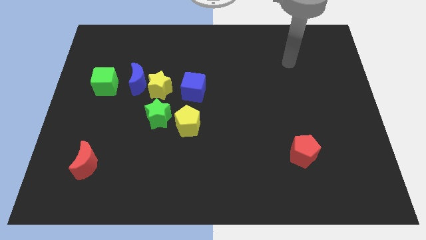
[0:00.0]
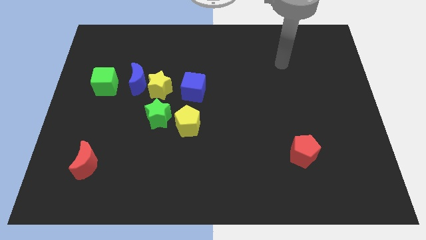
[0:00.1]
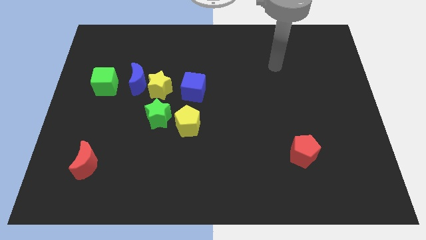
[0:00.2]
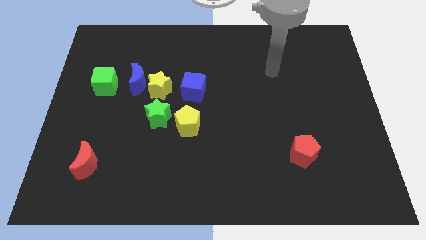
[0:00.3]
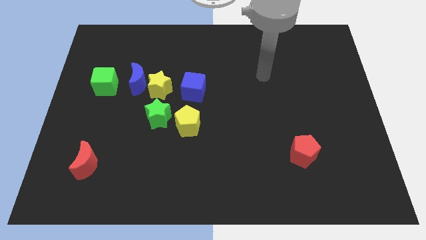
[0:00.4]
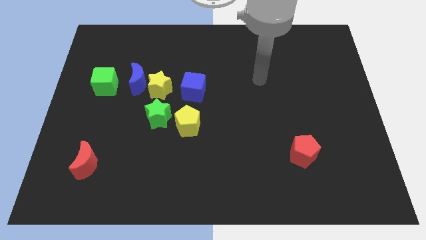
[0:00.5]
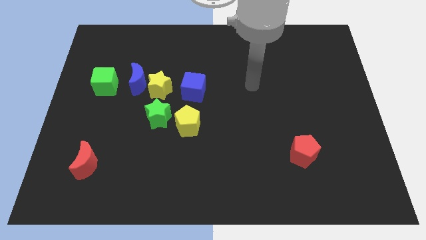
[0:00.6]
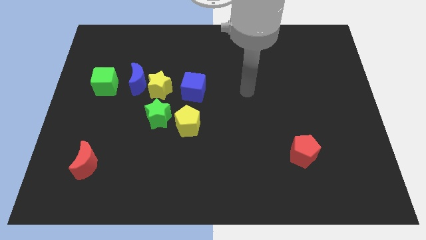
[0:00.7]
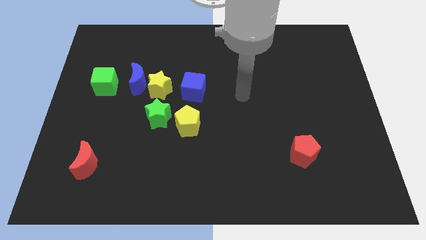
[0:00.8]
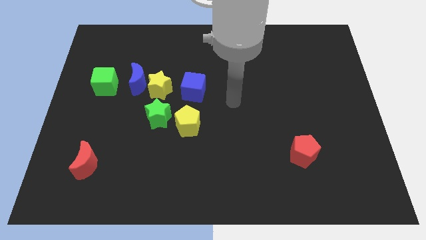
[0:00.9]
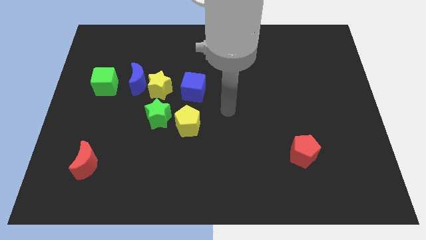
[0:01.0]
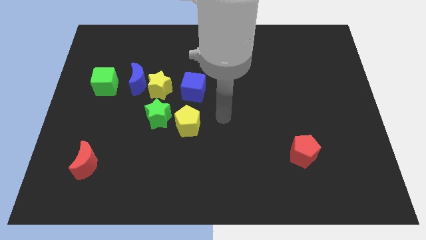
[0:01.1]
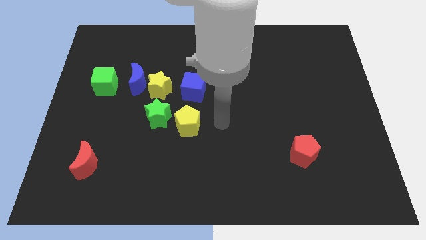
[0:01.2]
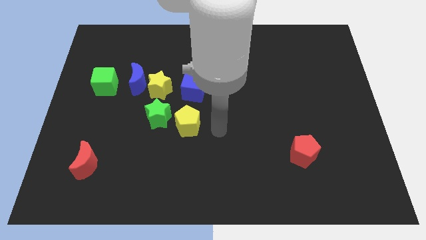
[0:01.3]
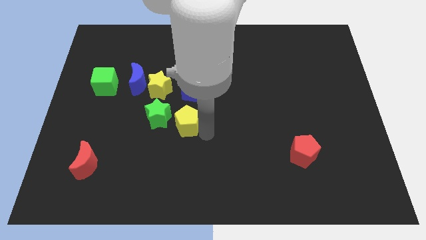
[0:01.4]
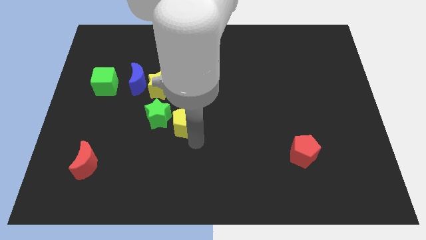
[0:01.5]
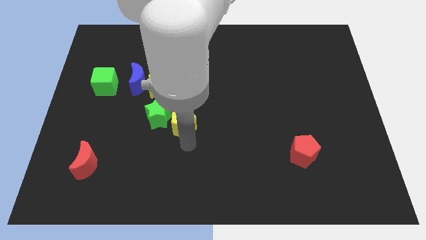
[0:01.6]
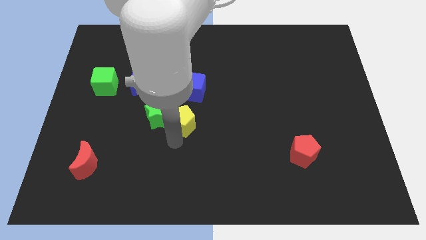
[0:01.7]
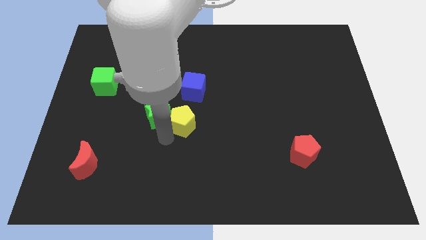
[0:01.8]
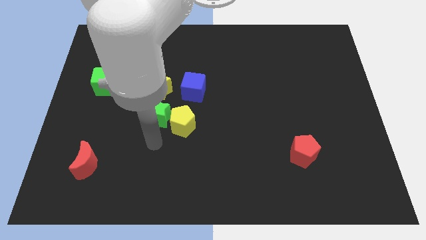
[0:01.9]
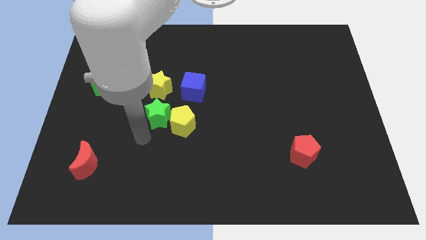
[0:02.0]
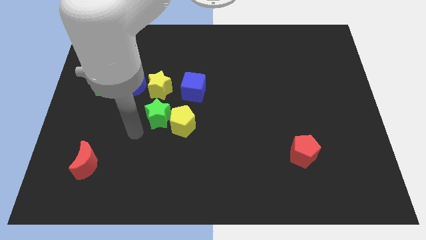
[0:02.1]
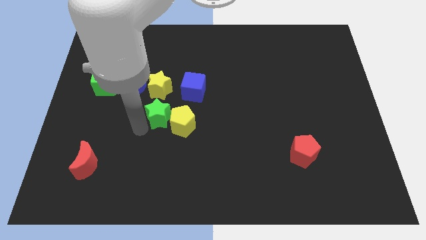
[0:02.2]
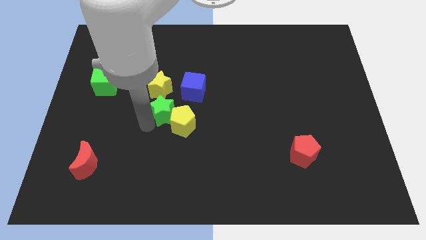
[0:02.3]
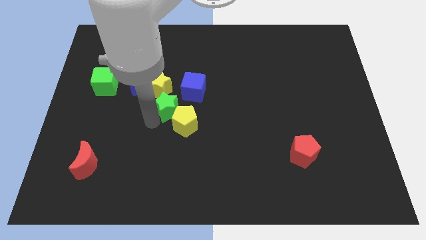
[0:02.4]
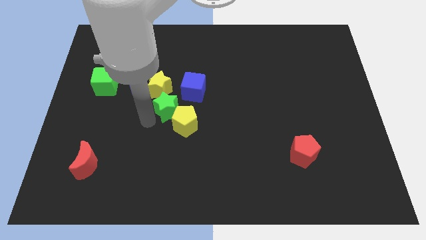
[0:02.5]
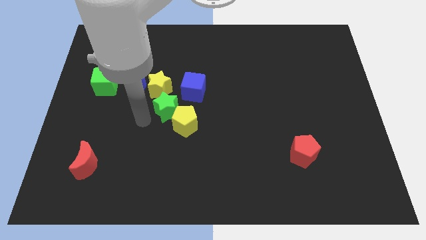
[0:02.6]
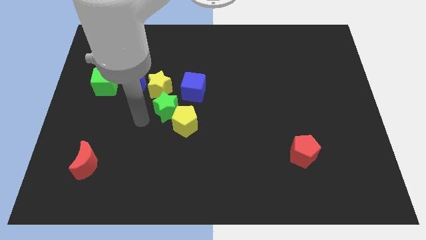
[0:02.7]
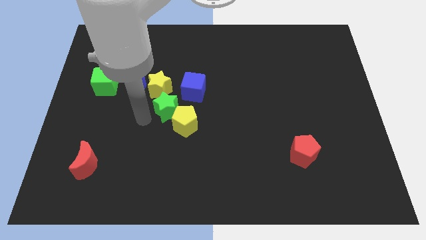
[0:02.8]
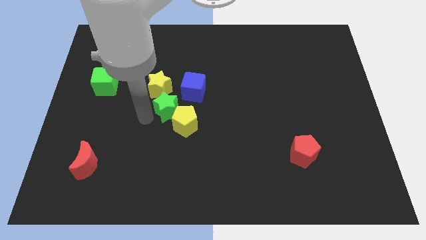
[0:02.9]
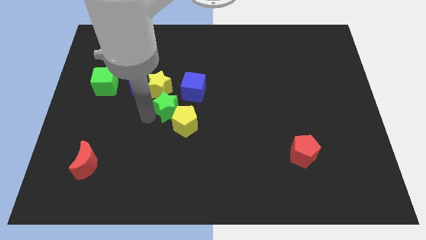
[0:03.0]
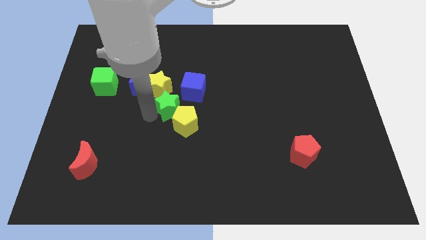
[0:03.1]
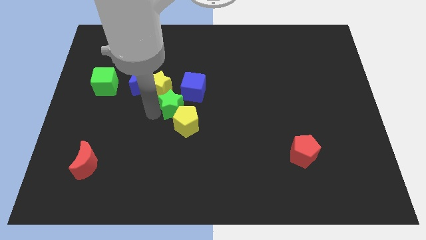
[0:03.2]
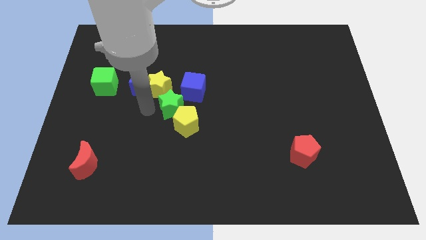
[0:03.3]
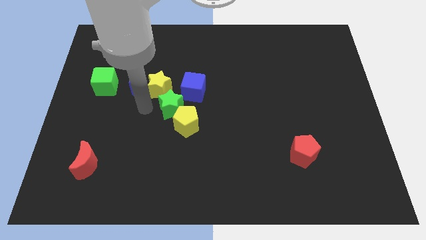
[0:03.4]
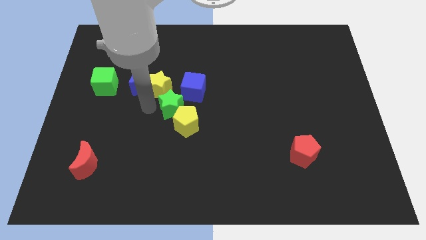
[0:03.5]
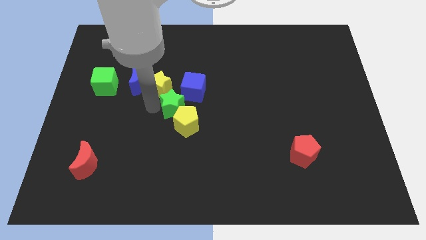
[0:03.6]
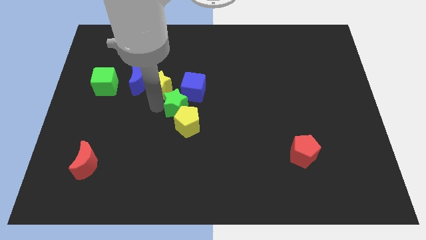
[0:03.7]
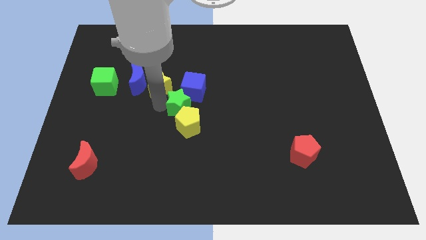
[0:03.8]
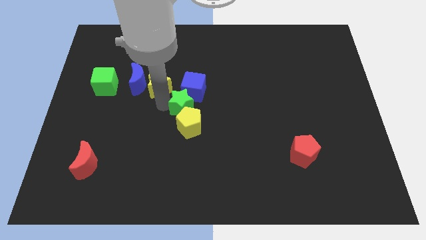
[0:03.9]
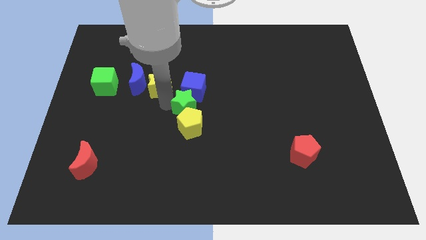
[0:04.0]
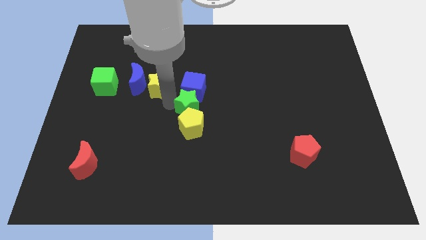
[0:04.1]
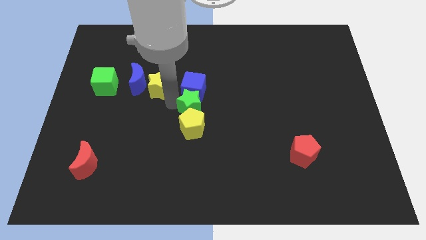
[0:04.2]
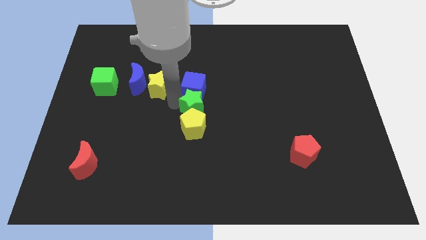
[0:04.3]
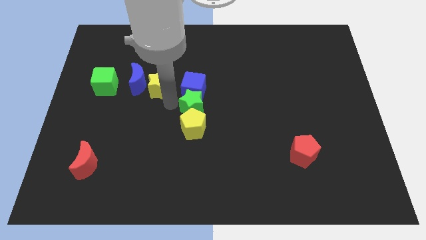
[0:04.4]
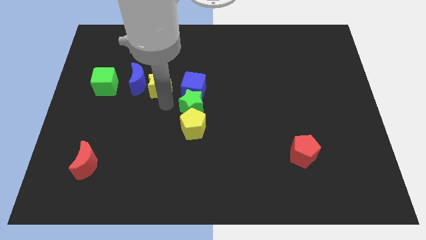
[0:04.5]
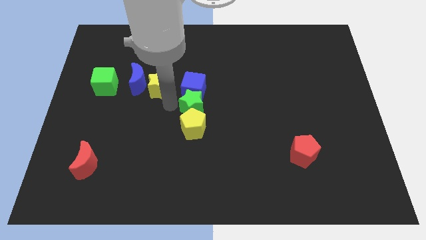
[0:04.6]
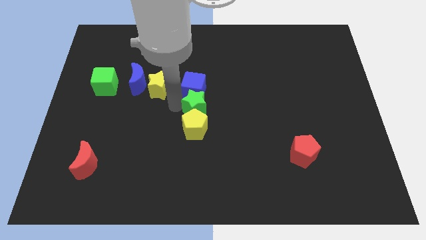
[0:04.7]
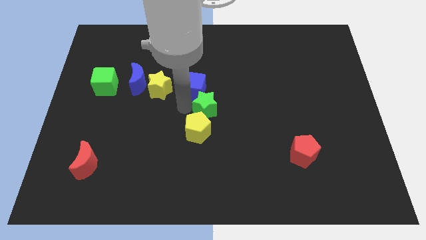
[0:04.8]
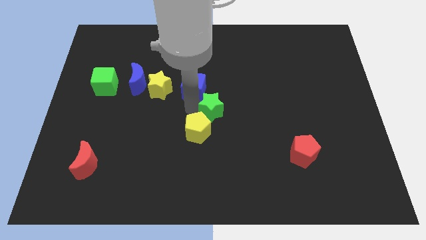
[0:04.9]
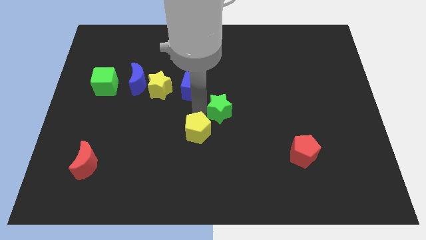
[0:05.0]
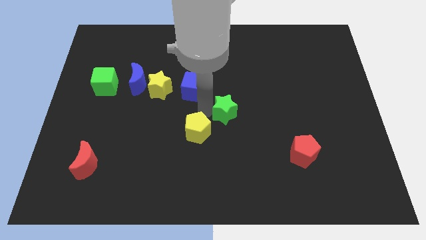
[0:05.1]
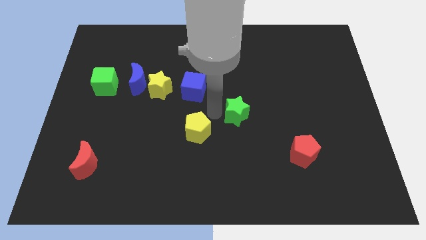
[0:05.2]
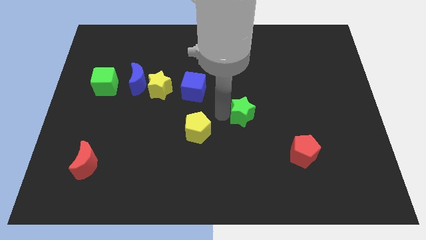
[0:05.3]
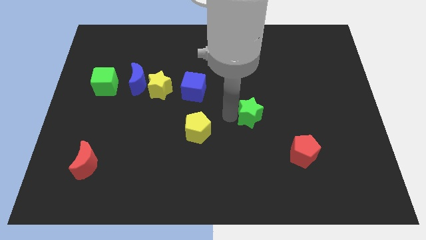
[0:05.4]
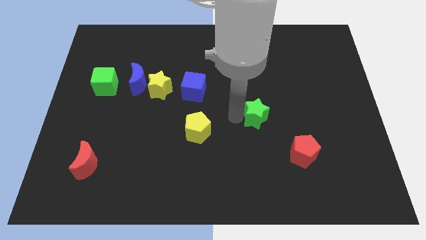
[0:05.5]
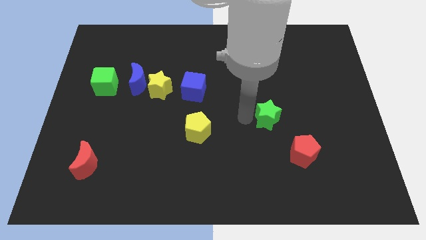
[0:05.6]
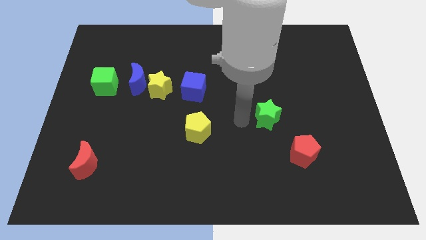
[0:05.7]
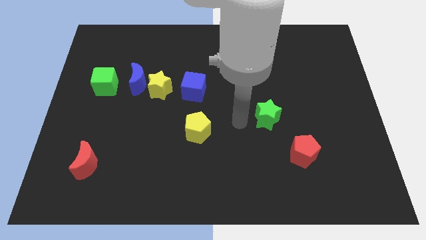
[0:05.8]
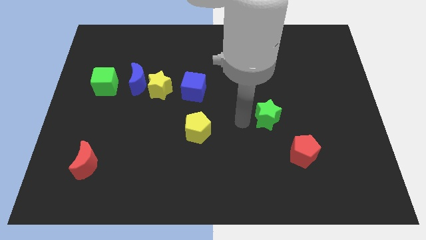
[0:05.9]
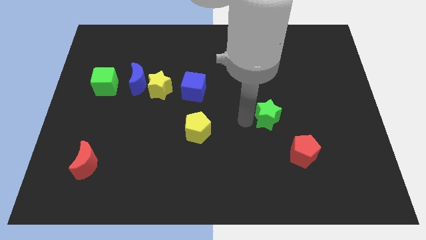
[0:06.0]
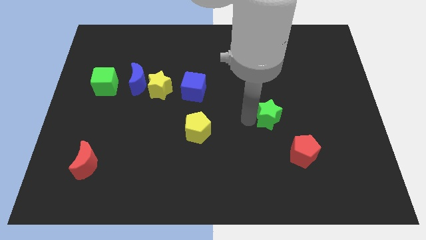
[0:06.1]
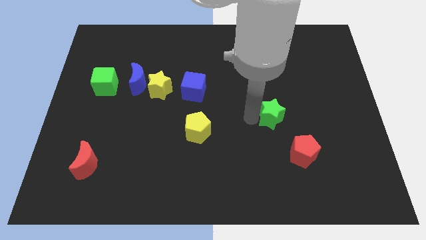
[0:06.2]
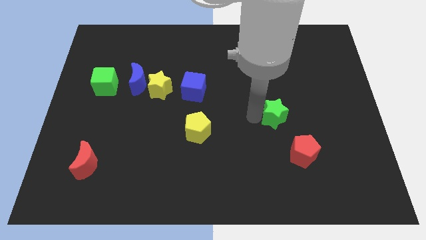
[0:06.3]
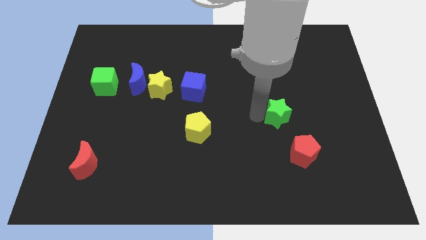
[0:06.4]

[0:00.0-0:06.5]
slide the green star above the red pentagon

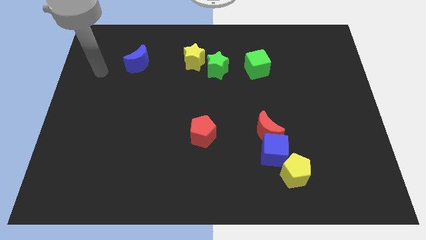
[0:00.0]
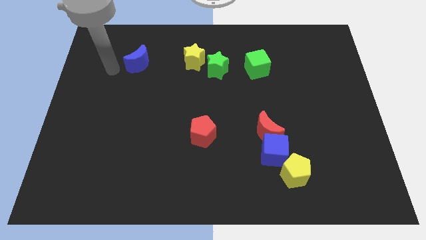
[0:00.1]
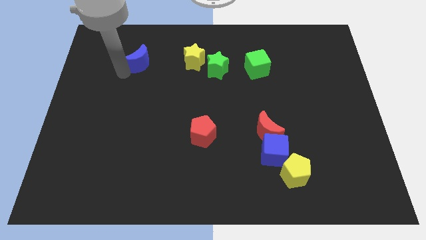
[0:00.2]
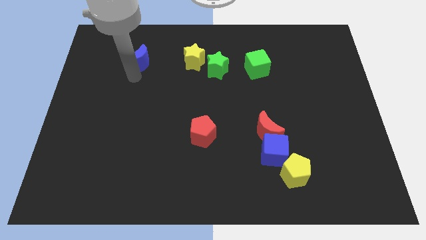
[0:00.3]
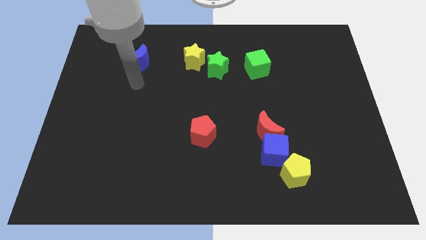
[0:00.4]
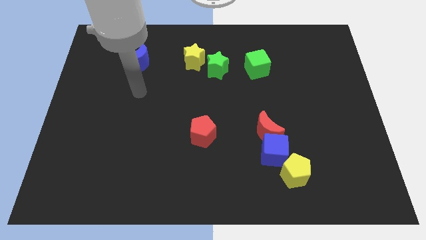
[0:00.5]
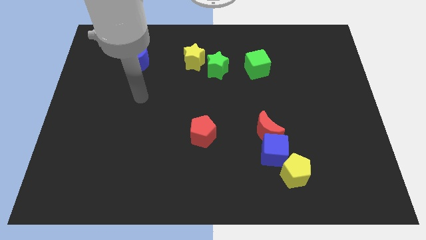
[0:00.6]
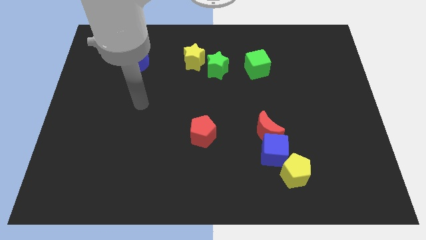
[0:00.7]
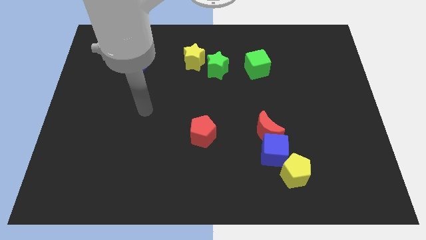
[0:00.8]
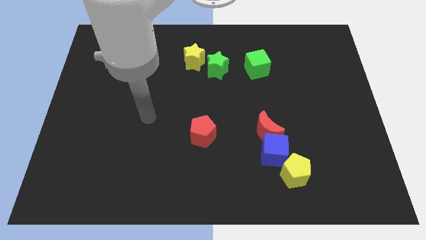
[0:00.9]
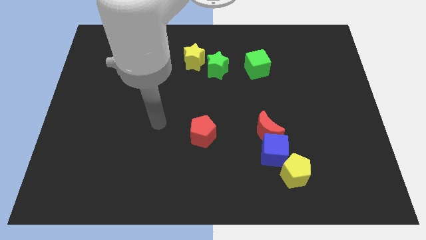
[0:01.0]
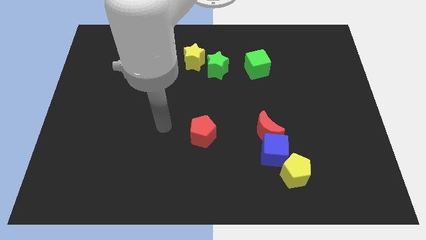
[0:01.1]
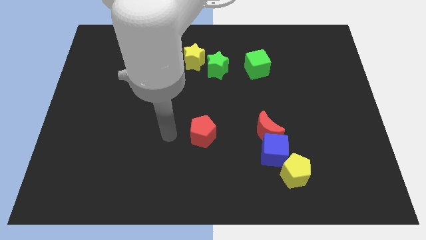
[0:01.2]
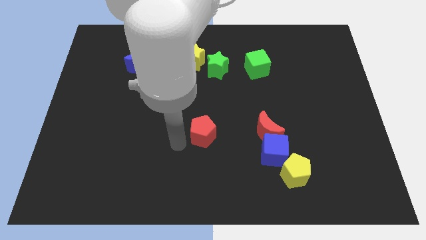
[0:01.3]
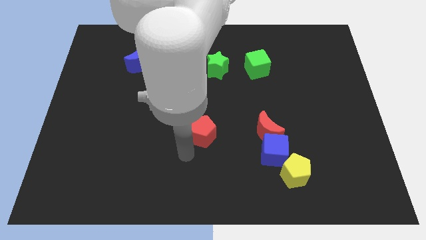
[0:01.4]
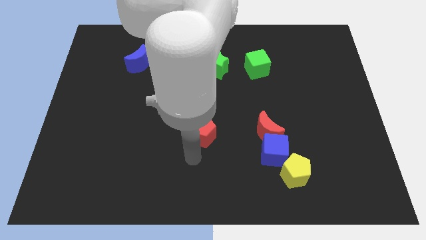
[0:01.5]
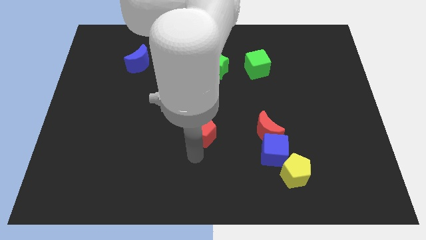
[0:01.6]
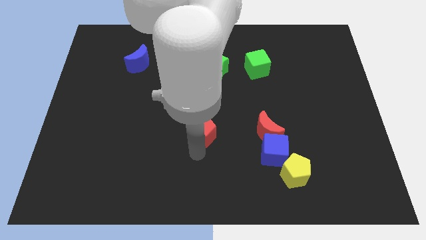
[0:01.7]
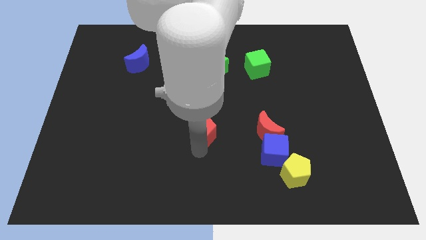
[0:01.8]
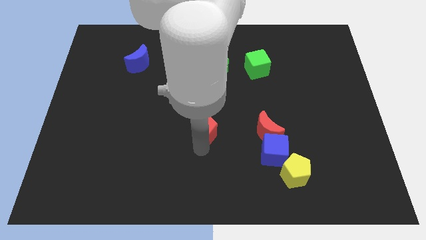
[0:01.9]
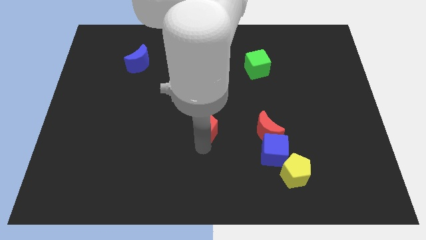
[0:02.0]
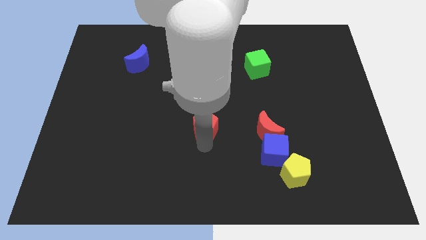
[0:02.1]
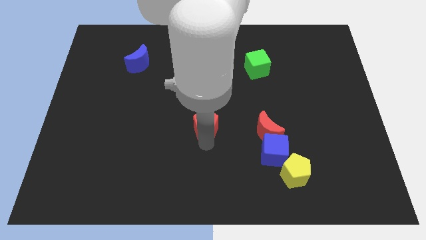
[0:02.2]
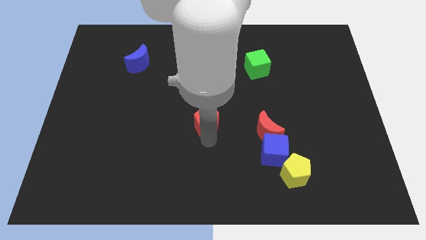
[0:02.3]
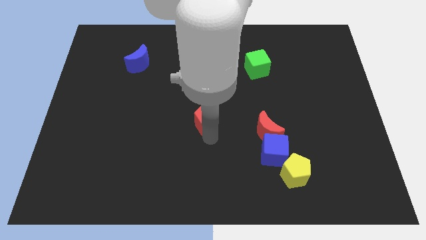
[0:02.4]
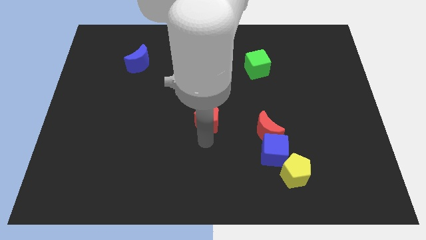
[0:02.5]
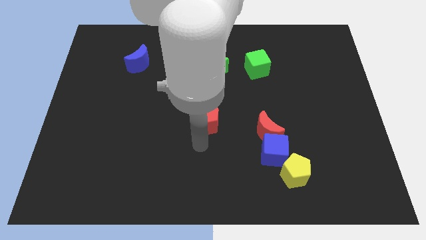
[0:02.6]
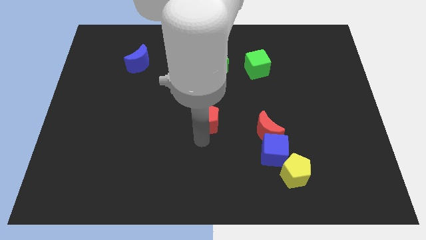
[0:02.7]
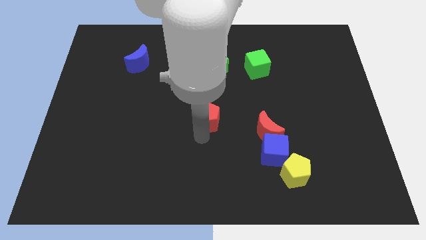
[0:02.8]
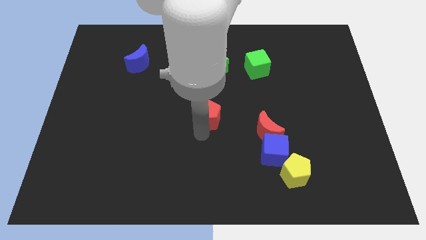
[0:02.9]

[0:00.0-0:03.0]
push the red pentagon to the bottom side of the green star
